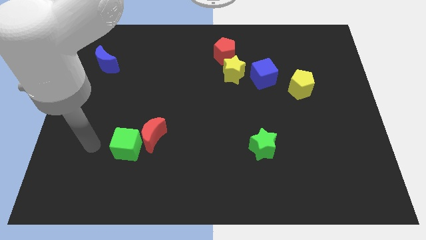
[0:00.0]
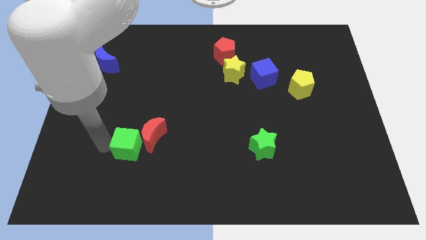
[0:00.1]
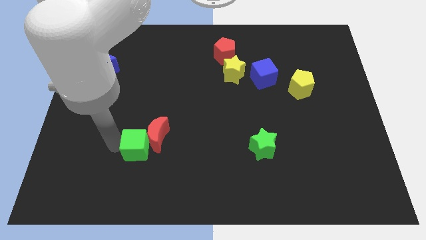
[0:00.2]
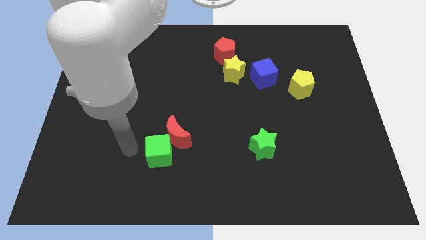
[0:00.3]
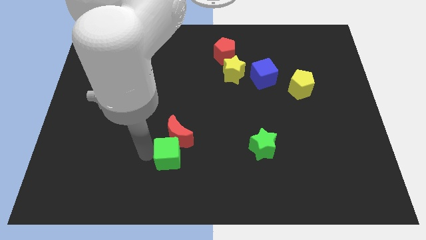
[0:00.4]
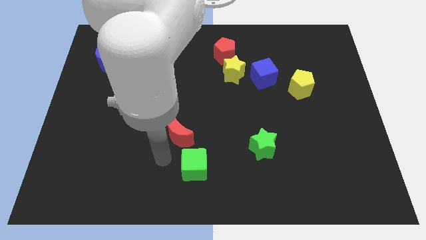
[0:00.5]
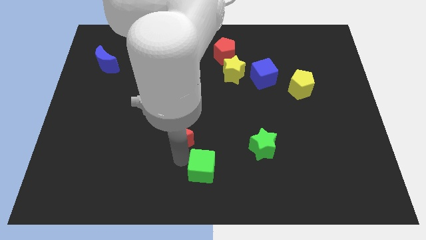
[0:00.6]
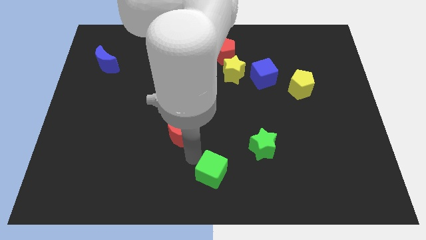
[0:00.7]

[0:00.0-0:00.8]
separate the red moon from the green cube

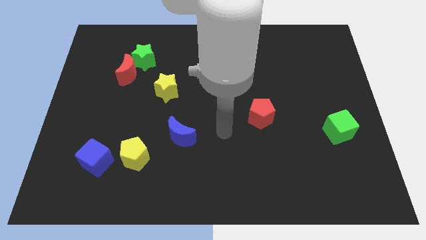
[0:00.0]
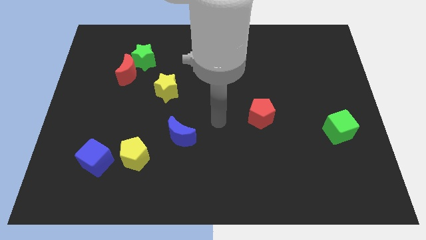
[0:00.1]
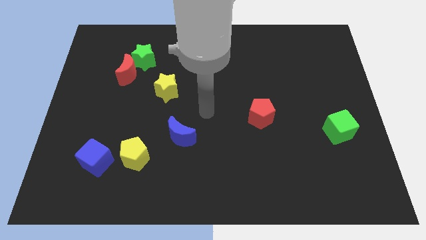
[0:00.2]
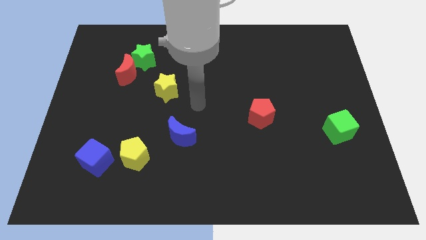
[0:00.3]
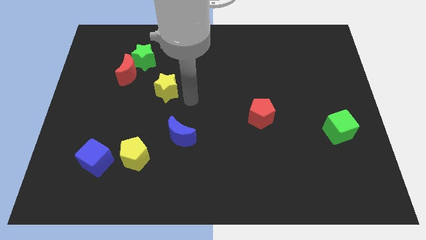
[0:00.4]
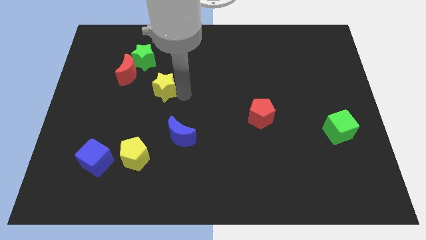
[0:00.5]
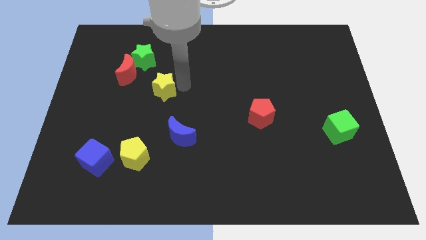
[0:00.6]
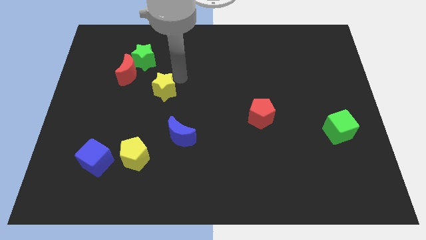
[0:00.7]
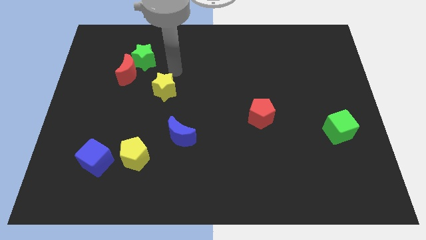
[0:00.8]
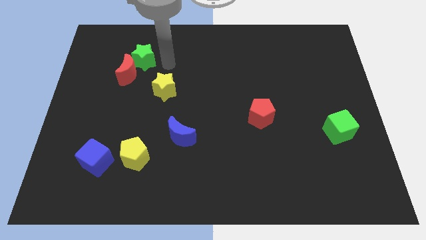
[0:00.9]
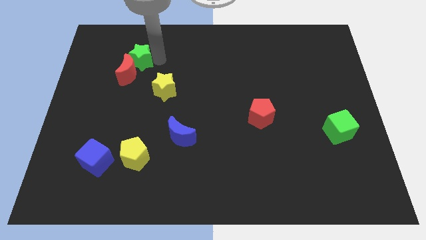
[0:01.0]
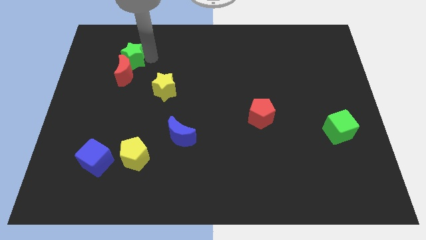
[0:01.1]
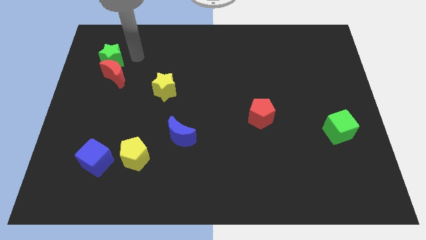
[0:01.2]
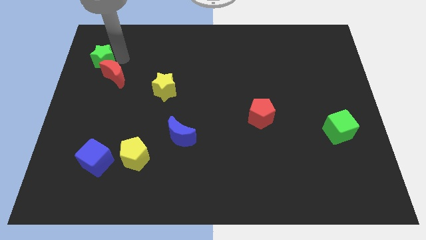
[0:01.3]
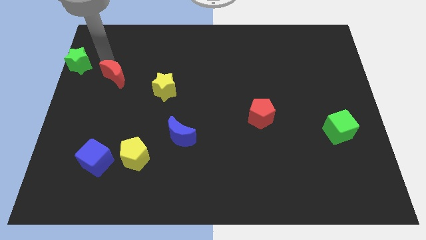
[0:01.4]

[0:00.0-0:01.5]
pull the red moon apart from the green star

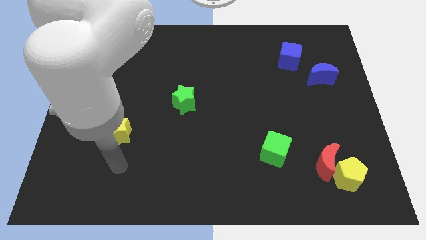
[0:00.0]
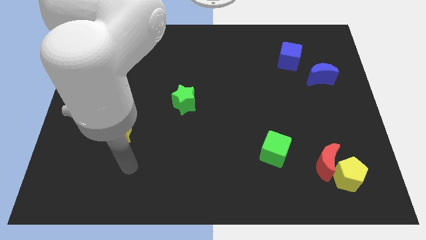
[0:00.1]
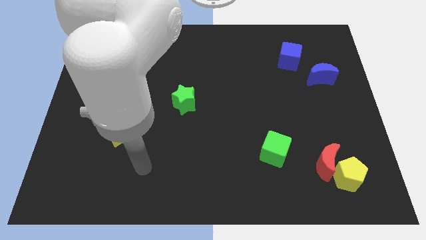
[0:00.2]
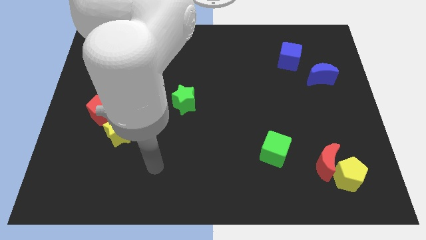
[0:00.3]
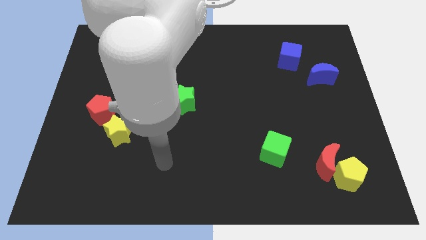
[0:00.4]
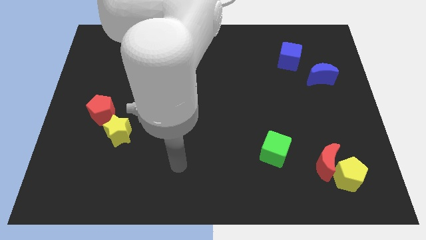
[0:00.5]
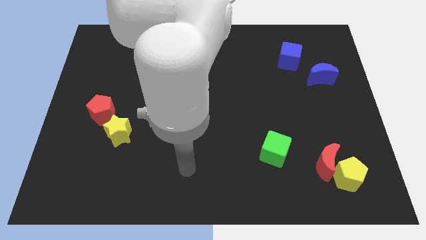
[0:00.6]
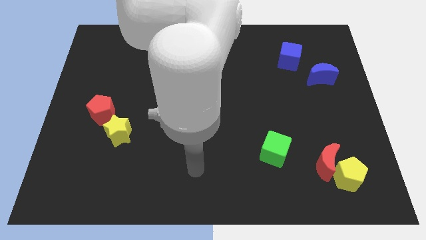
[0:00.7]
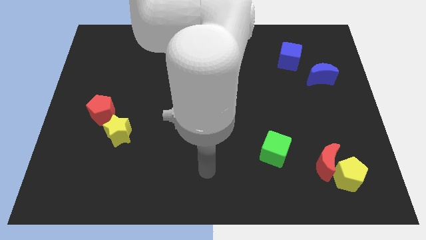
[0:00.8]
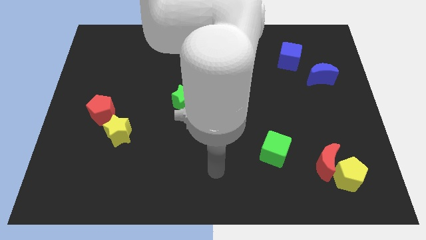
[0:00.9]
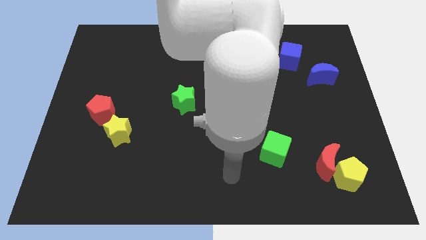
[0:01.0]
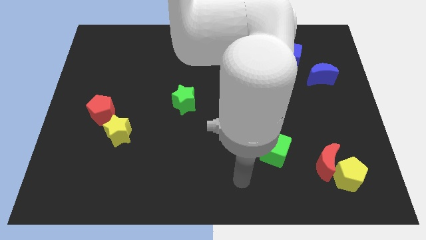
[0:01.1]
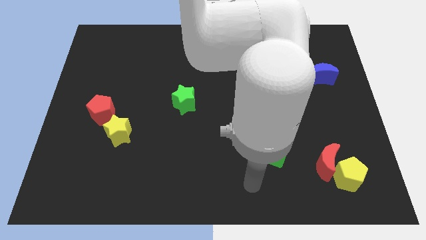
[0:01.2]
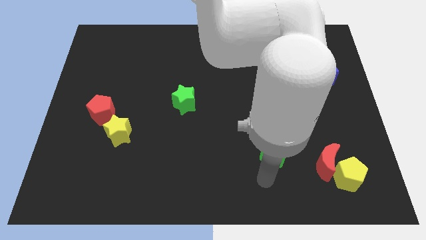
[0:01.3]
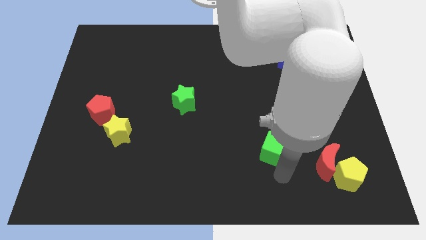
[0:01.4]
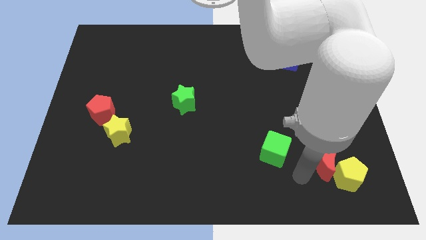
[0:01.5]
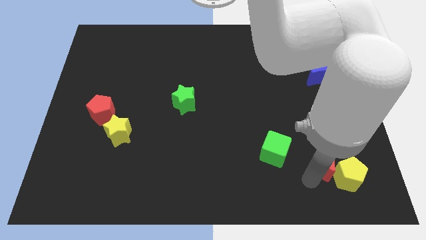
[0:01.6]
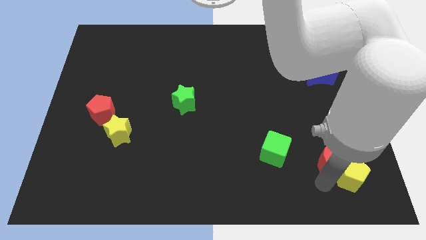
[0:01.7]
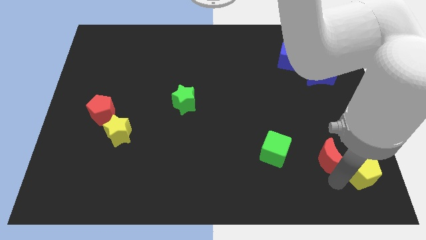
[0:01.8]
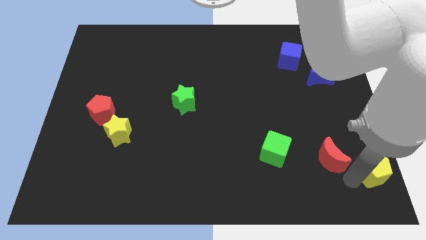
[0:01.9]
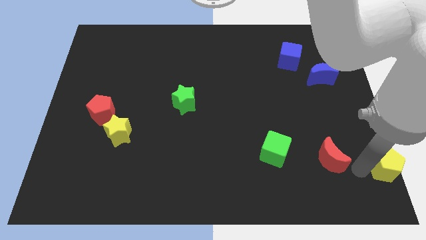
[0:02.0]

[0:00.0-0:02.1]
move the red moon away from the yellow pentagon

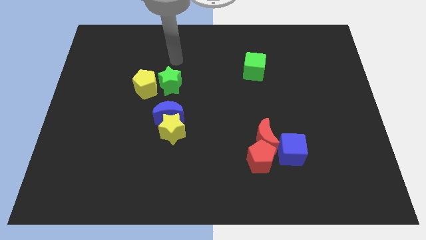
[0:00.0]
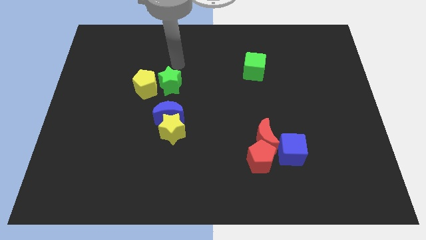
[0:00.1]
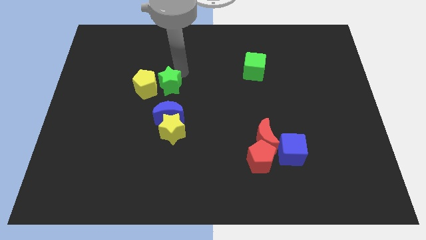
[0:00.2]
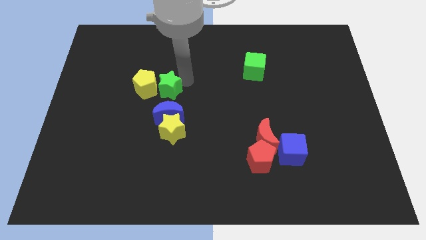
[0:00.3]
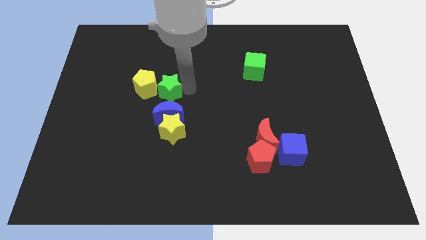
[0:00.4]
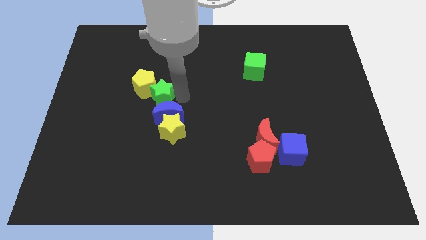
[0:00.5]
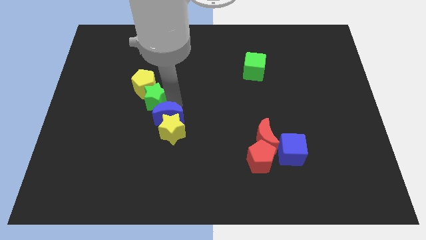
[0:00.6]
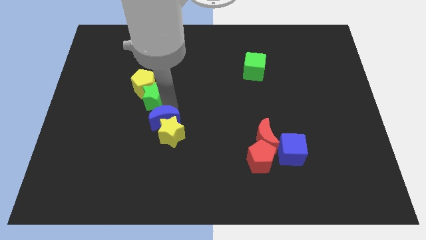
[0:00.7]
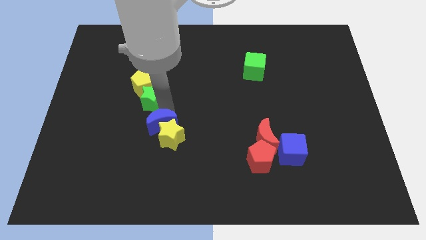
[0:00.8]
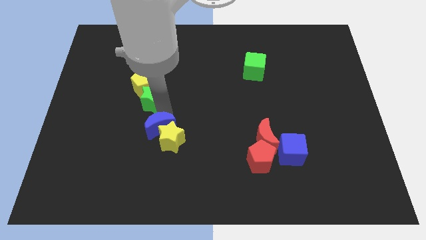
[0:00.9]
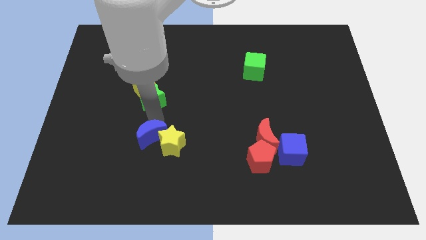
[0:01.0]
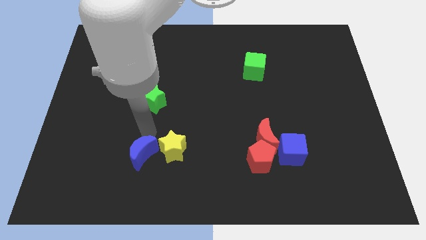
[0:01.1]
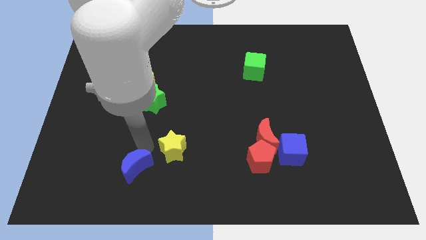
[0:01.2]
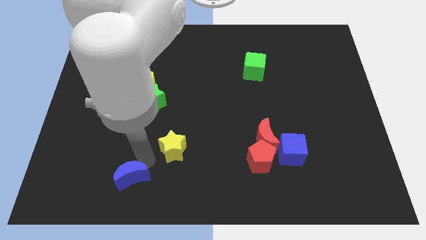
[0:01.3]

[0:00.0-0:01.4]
move the yellow star away from the blue moon

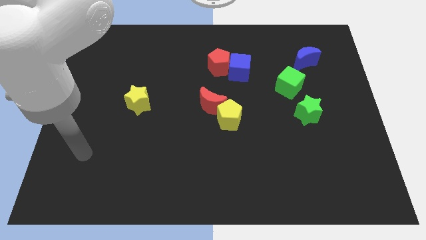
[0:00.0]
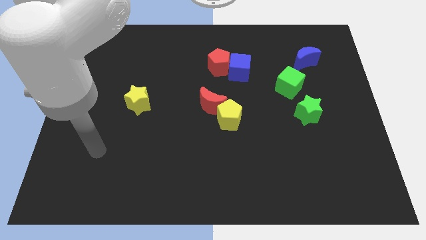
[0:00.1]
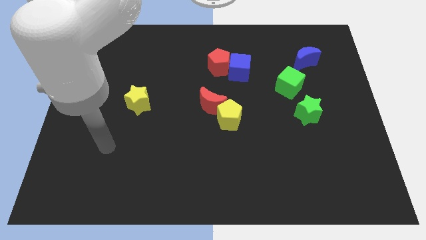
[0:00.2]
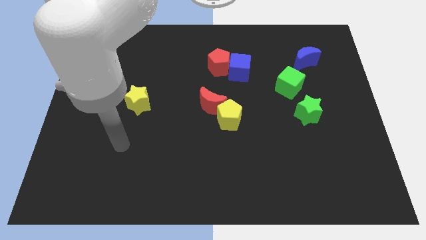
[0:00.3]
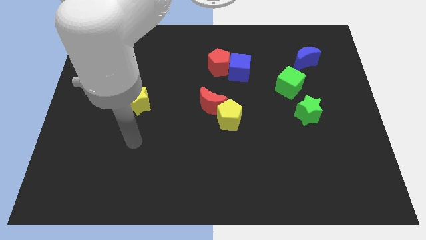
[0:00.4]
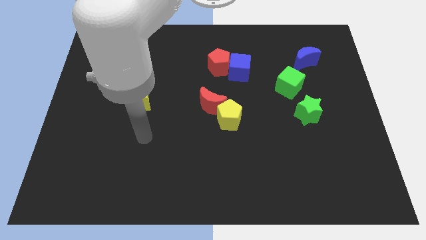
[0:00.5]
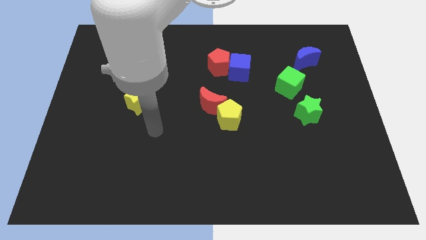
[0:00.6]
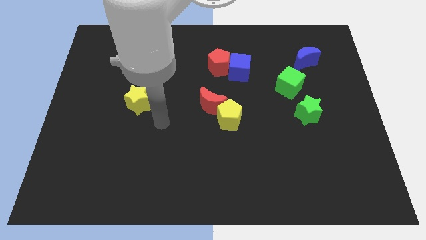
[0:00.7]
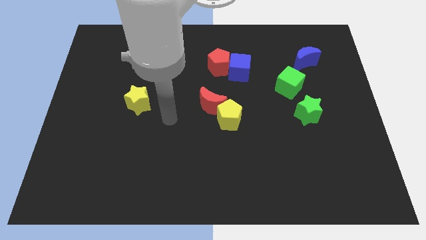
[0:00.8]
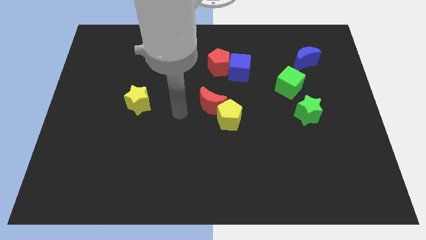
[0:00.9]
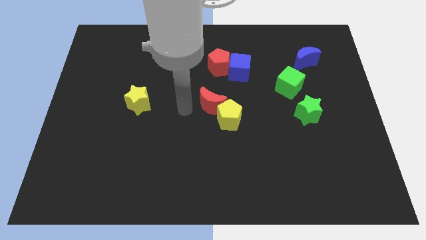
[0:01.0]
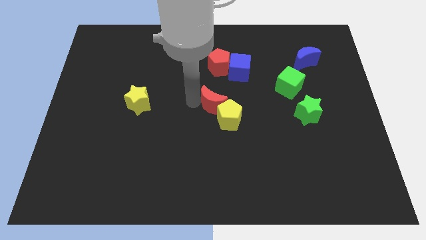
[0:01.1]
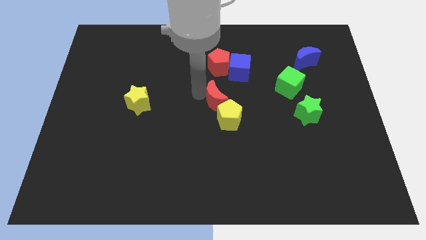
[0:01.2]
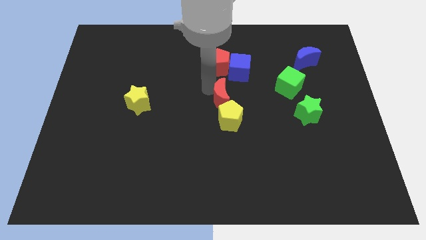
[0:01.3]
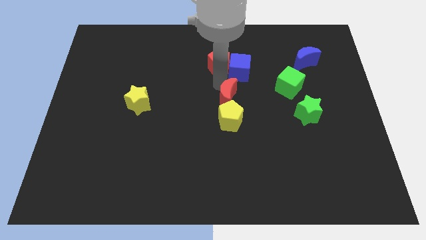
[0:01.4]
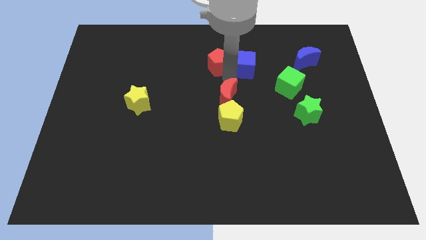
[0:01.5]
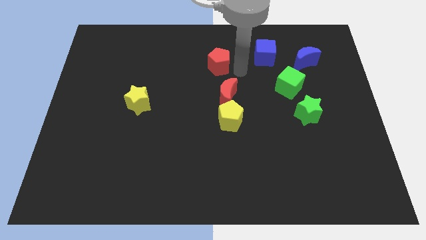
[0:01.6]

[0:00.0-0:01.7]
move the red pentagon away from the blue cube

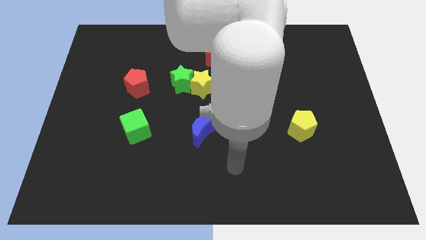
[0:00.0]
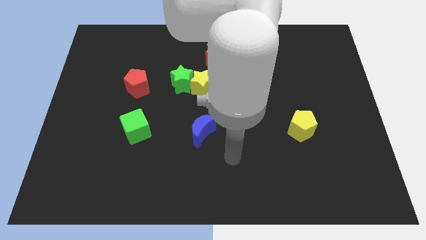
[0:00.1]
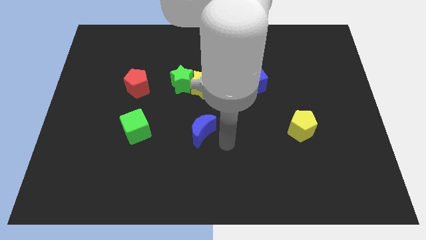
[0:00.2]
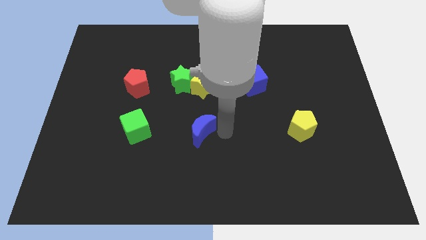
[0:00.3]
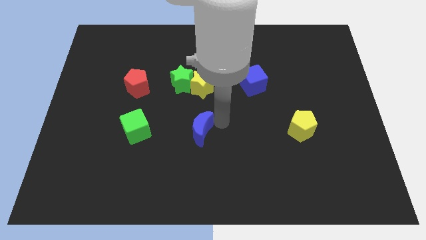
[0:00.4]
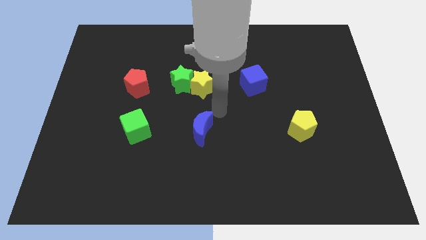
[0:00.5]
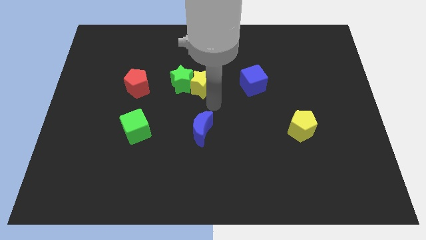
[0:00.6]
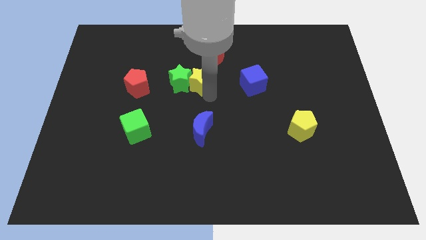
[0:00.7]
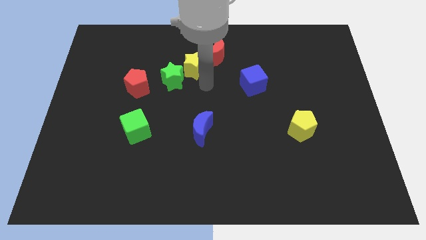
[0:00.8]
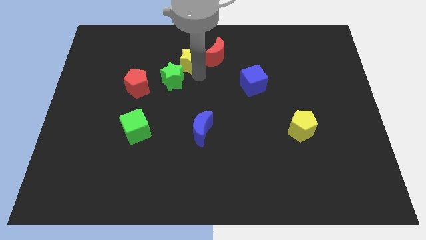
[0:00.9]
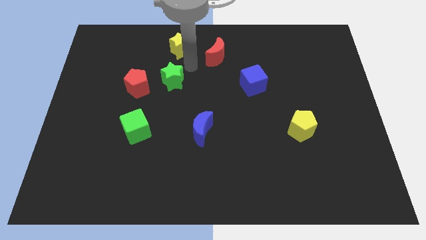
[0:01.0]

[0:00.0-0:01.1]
pull the green star apart from the yellow star

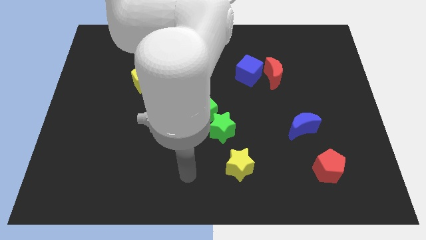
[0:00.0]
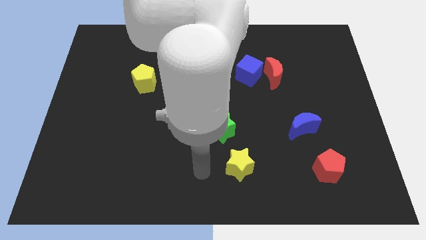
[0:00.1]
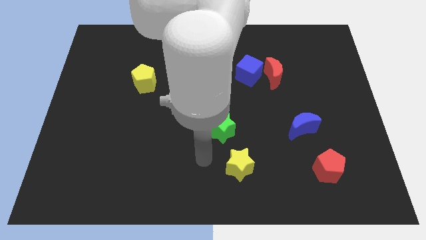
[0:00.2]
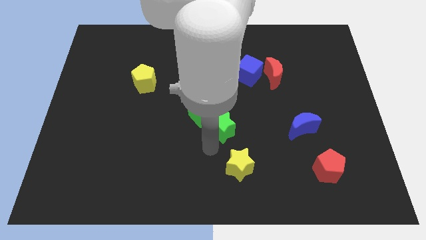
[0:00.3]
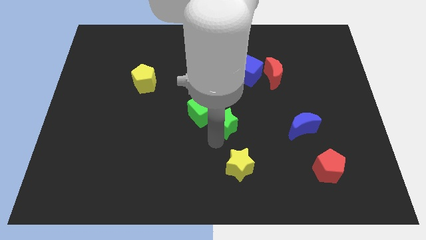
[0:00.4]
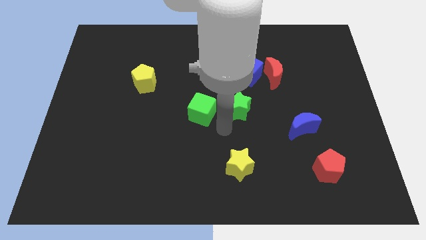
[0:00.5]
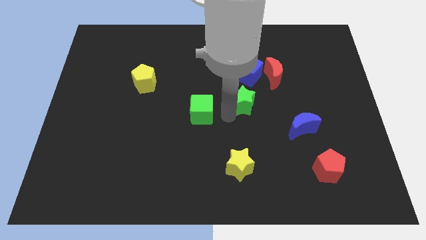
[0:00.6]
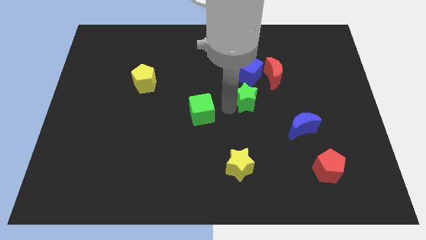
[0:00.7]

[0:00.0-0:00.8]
separate the green cube from the green star
